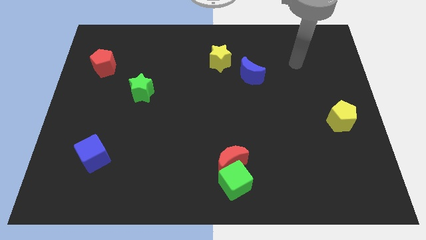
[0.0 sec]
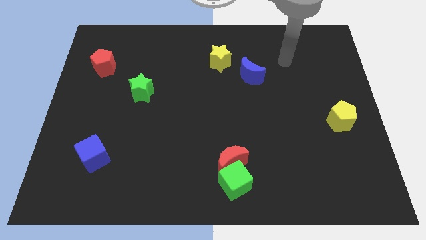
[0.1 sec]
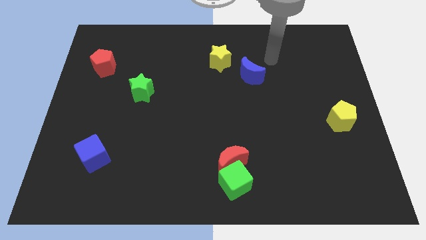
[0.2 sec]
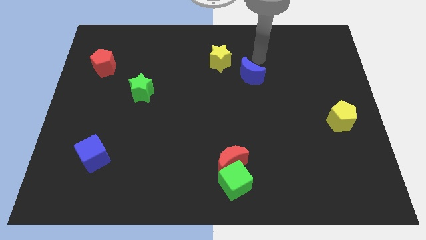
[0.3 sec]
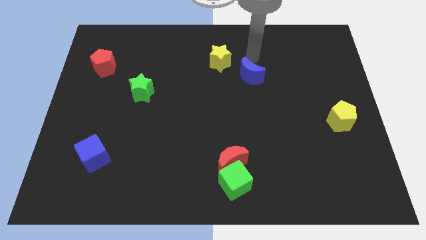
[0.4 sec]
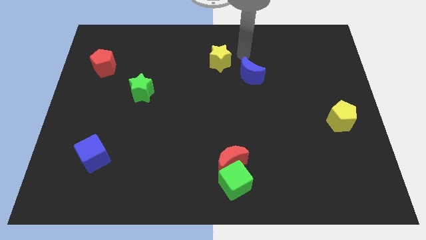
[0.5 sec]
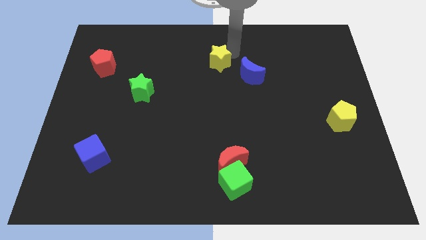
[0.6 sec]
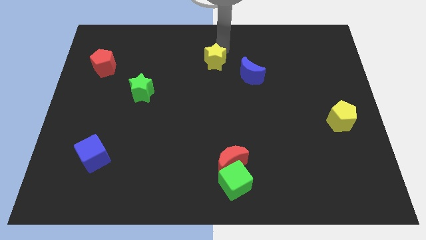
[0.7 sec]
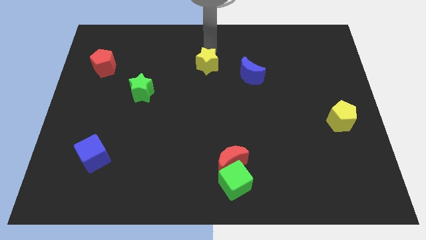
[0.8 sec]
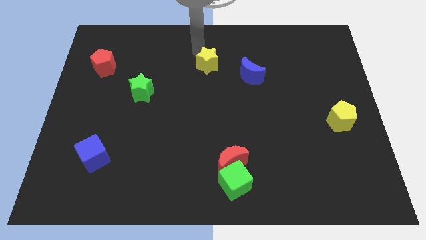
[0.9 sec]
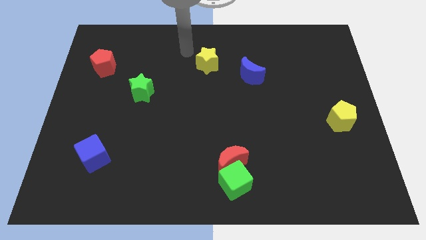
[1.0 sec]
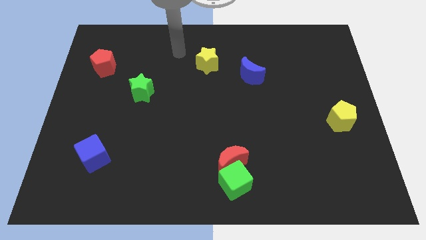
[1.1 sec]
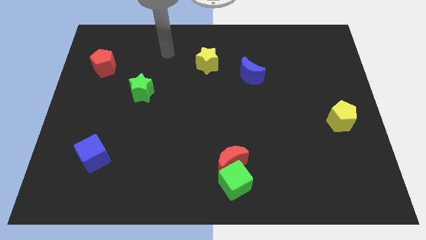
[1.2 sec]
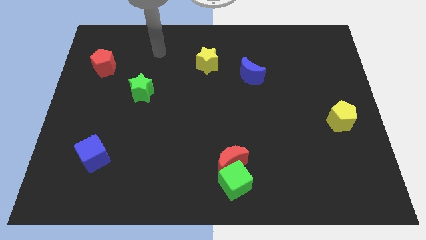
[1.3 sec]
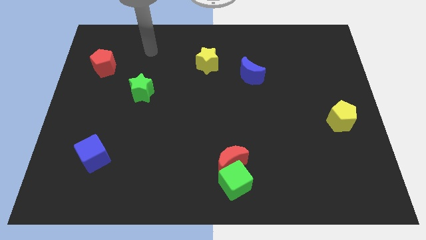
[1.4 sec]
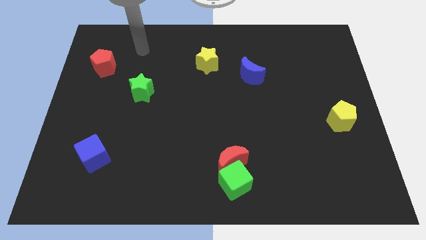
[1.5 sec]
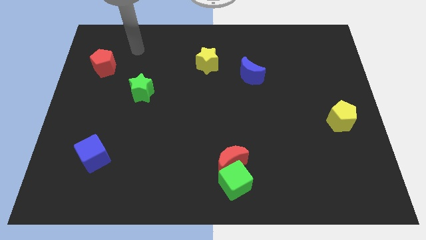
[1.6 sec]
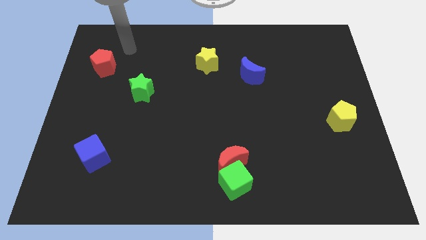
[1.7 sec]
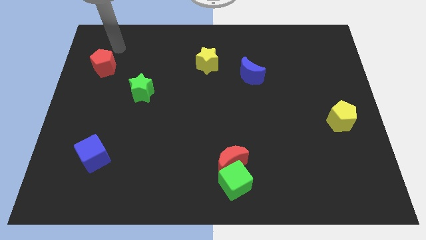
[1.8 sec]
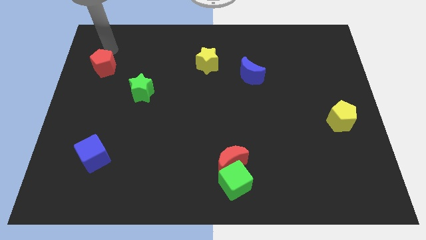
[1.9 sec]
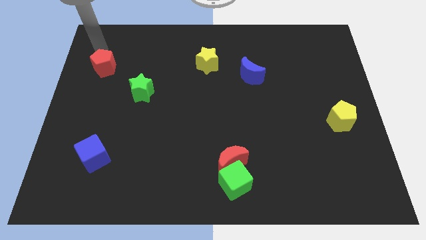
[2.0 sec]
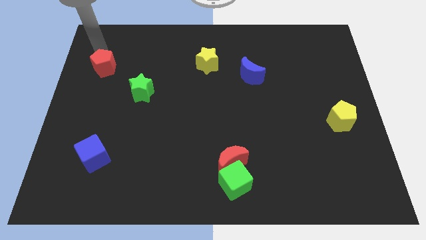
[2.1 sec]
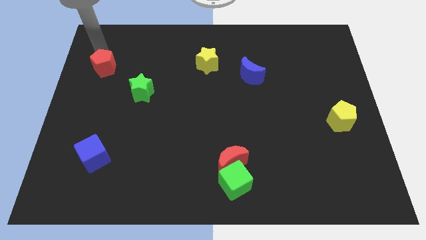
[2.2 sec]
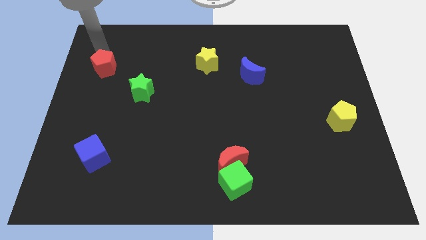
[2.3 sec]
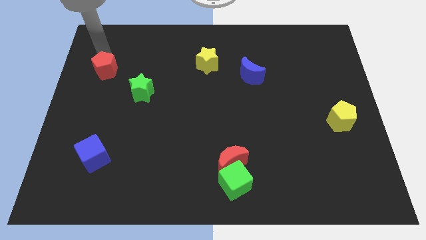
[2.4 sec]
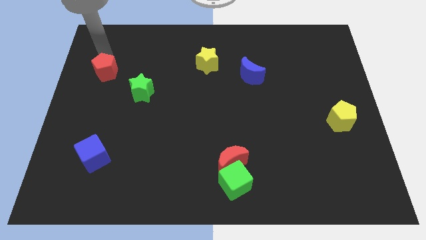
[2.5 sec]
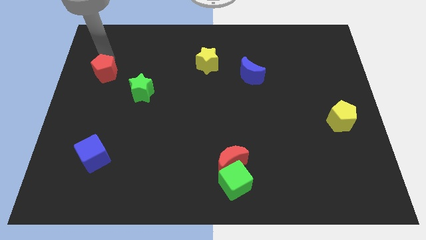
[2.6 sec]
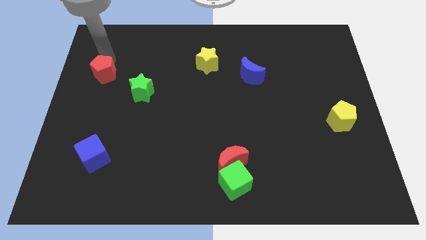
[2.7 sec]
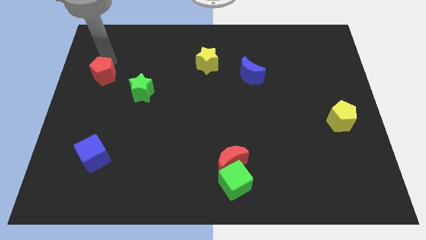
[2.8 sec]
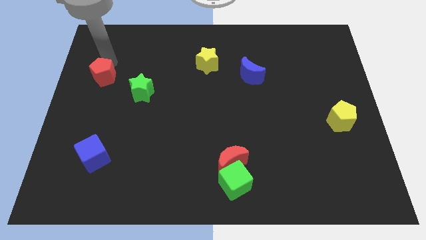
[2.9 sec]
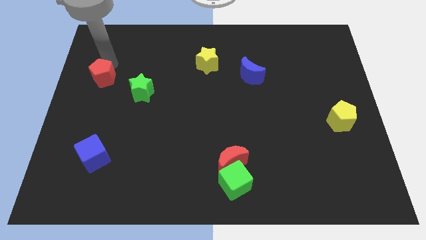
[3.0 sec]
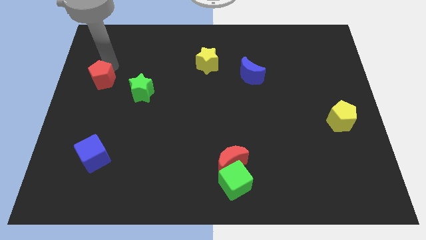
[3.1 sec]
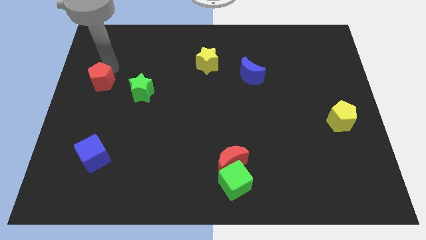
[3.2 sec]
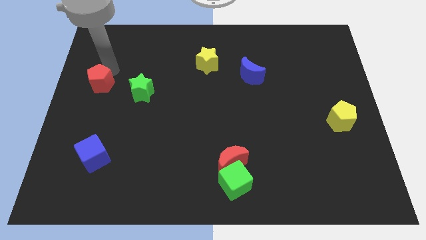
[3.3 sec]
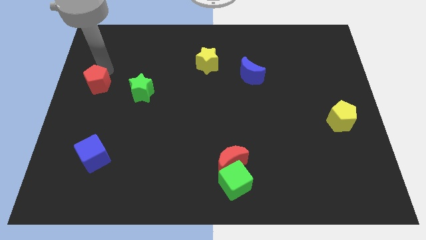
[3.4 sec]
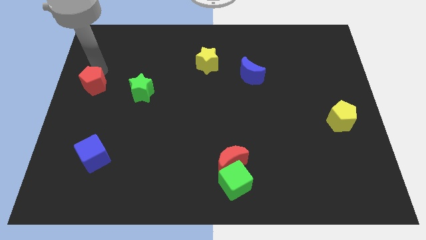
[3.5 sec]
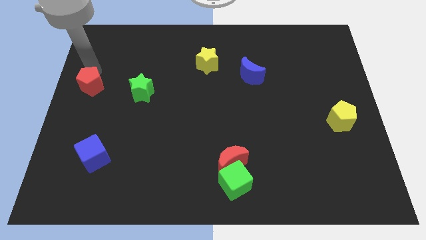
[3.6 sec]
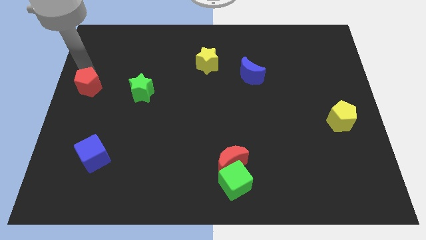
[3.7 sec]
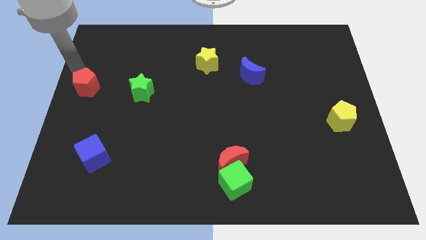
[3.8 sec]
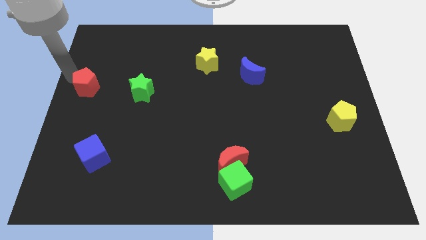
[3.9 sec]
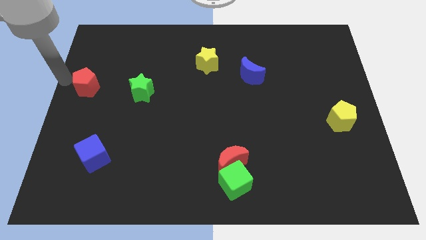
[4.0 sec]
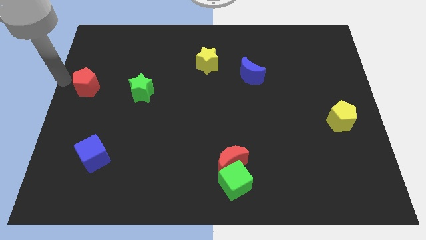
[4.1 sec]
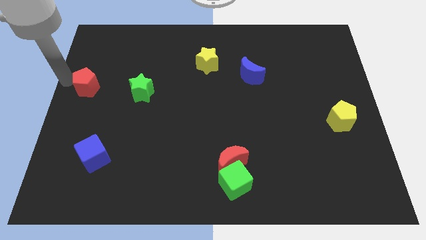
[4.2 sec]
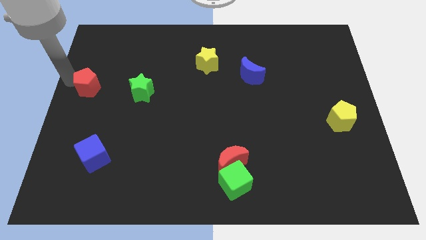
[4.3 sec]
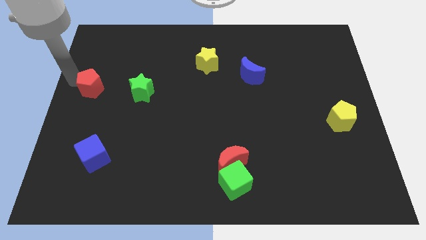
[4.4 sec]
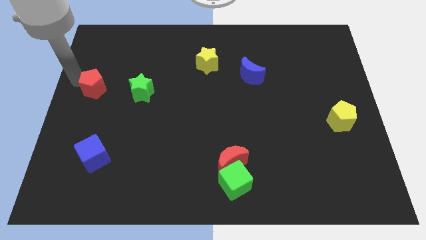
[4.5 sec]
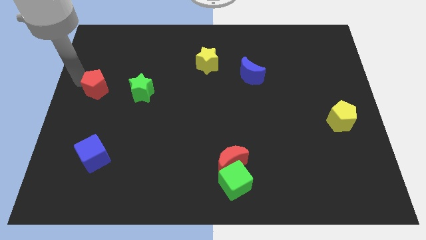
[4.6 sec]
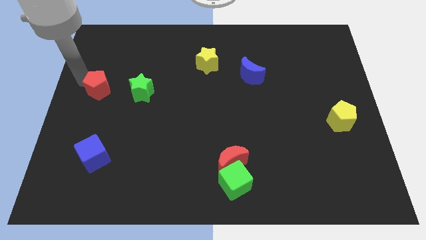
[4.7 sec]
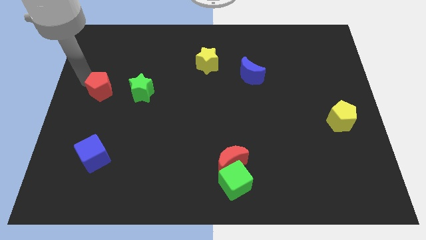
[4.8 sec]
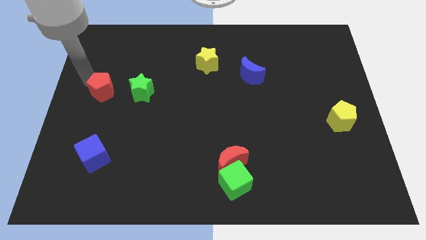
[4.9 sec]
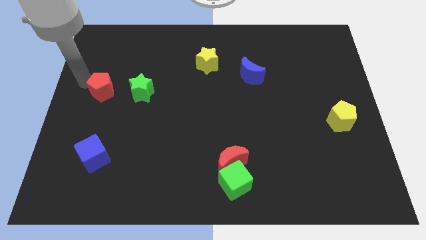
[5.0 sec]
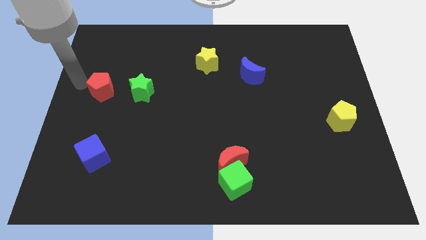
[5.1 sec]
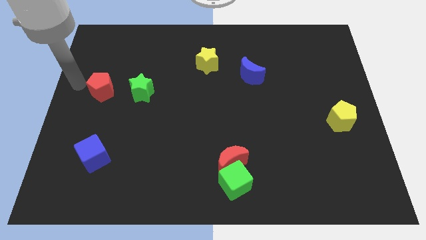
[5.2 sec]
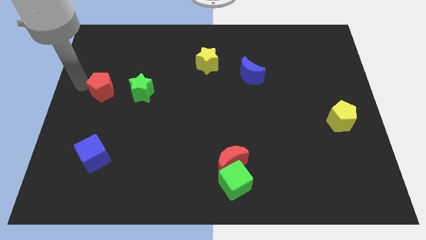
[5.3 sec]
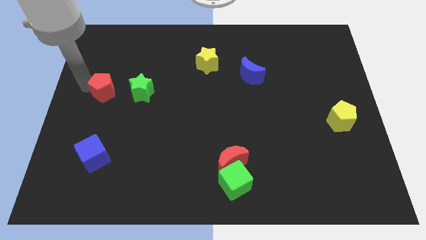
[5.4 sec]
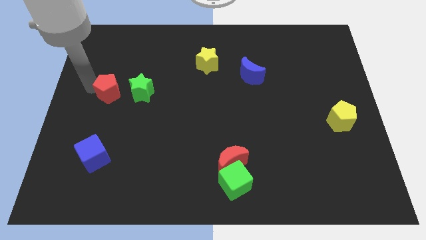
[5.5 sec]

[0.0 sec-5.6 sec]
move the red pentagon down and then right a little bit

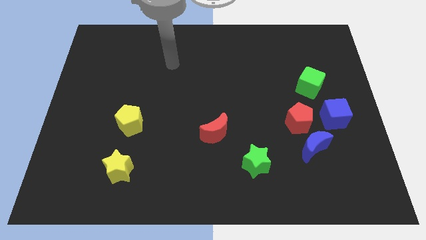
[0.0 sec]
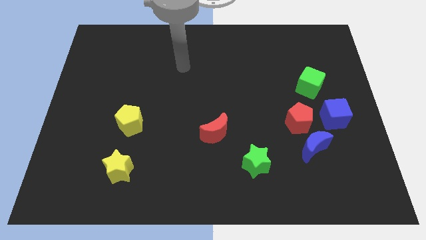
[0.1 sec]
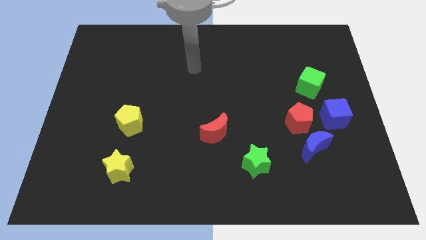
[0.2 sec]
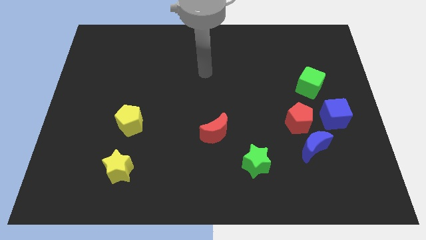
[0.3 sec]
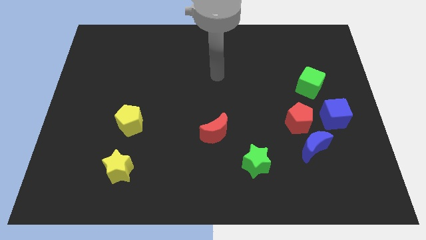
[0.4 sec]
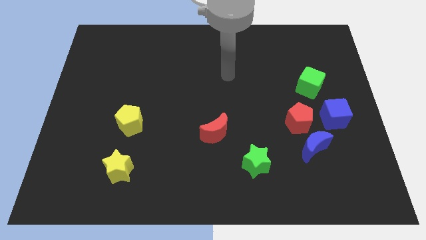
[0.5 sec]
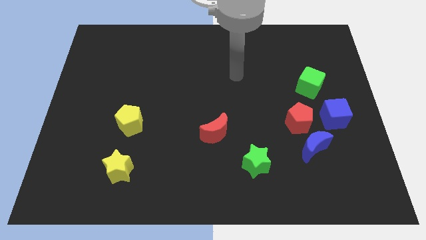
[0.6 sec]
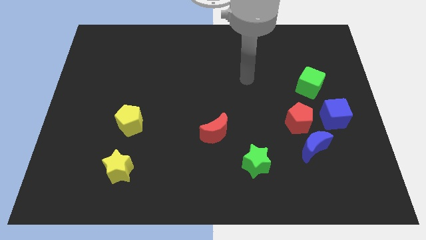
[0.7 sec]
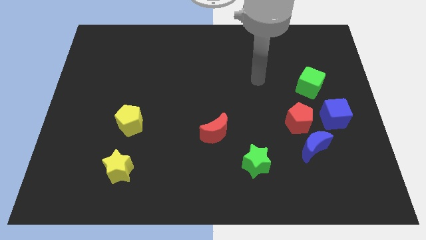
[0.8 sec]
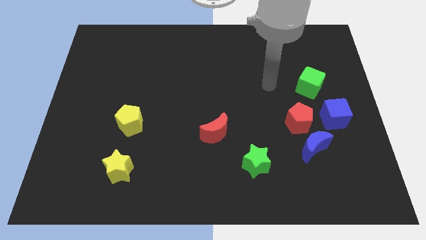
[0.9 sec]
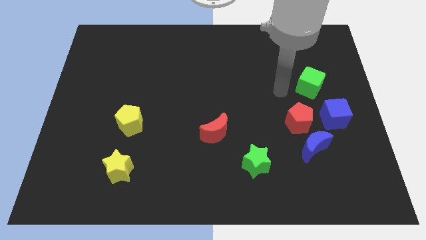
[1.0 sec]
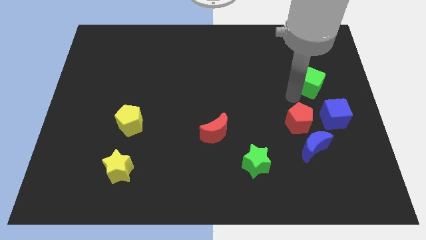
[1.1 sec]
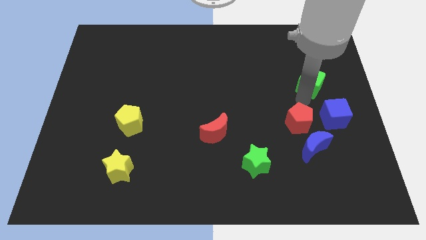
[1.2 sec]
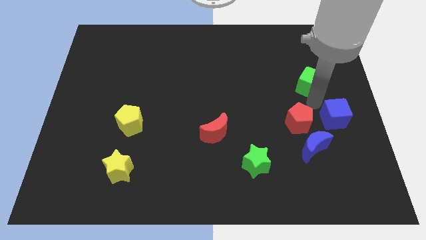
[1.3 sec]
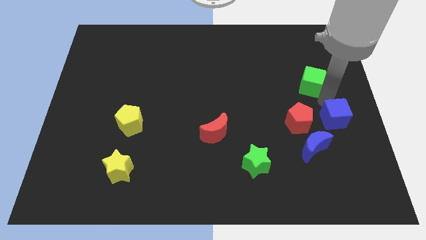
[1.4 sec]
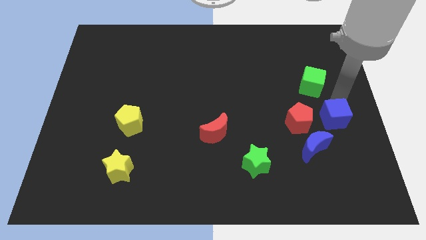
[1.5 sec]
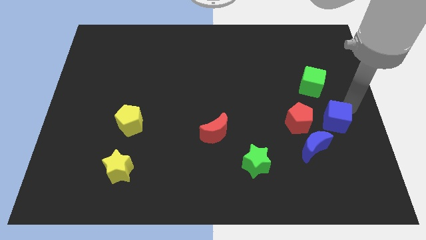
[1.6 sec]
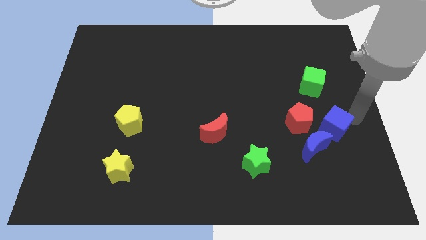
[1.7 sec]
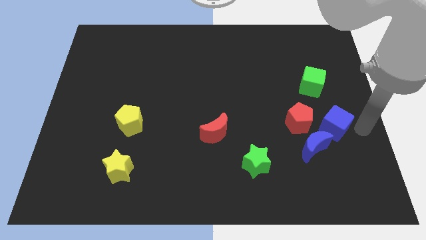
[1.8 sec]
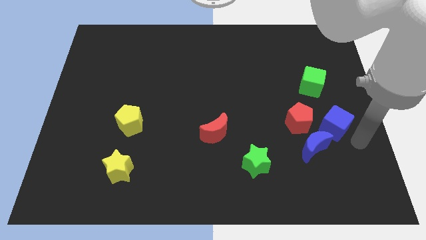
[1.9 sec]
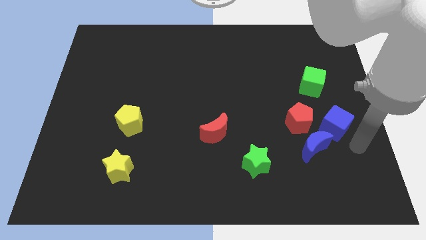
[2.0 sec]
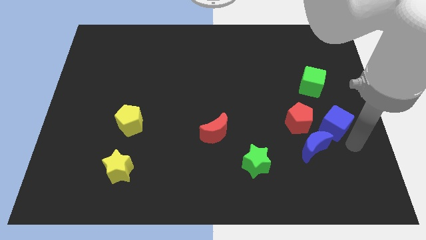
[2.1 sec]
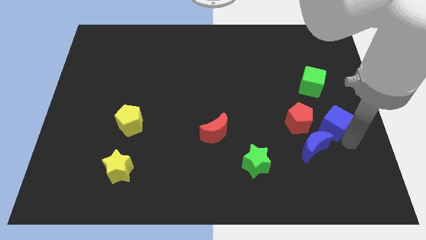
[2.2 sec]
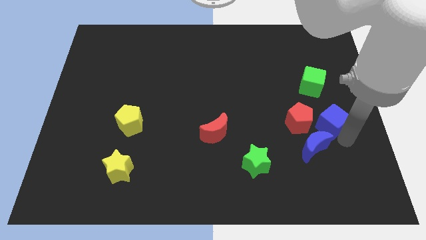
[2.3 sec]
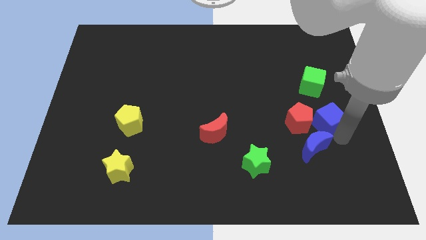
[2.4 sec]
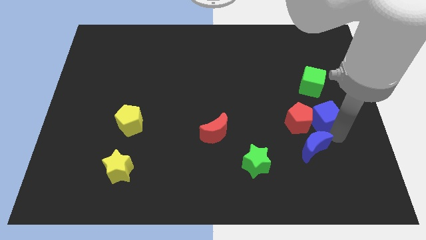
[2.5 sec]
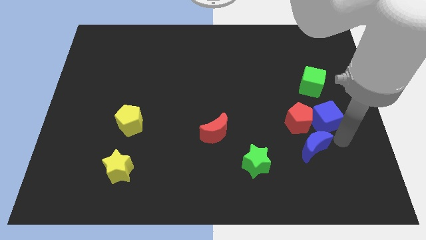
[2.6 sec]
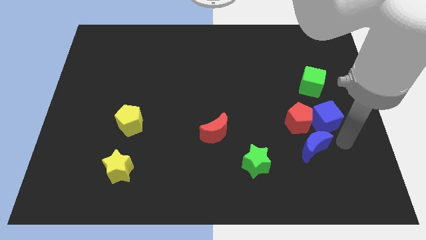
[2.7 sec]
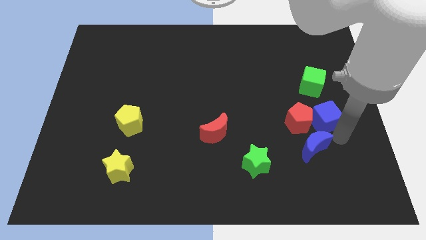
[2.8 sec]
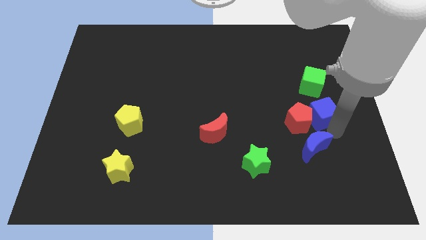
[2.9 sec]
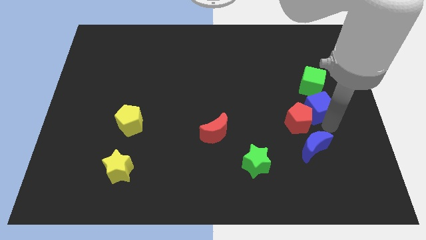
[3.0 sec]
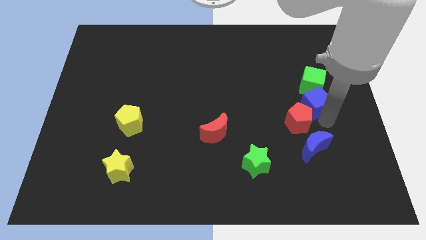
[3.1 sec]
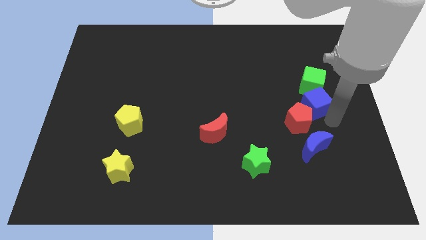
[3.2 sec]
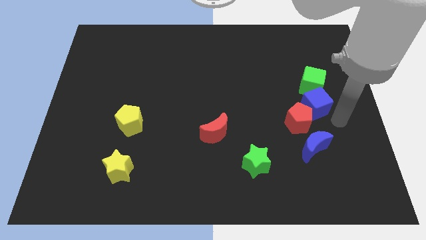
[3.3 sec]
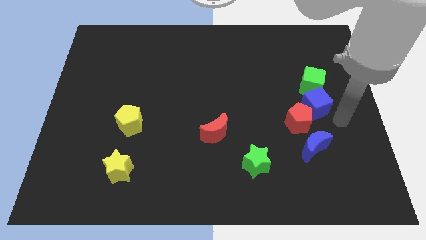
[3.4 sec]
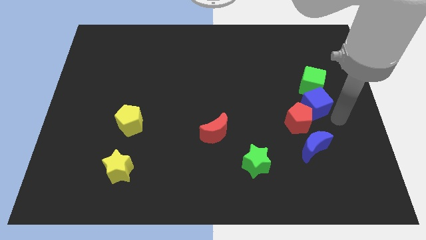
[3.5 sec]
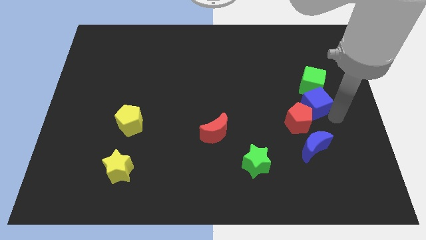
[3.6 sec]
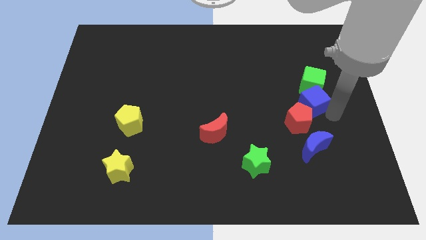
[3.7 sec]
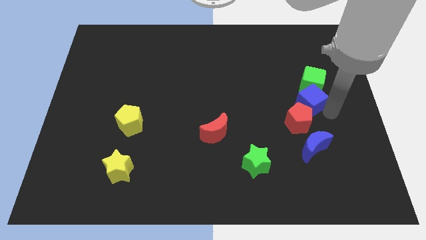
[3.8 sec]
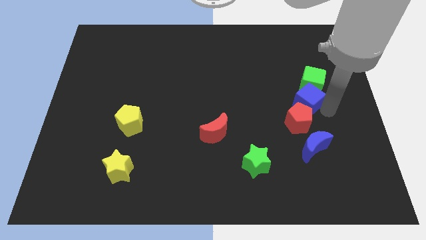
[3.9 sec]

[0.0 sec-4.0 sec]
slightly push the blue cube upwards and left diagonally
